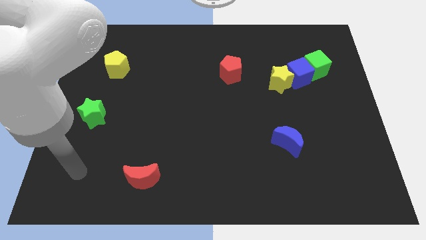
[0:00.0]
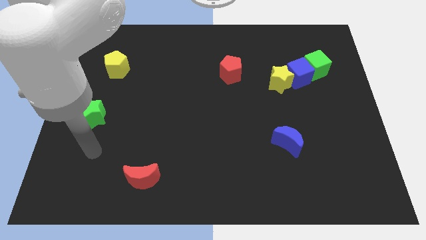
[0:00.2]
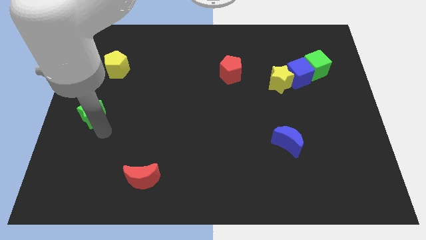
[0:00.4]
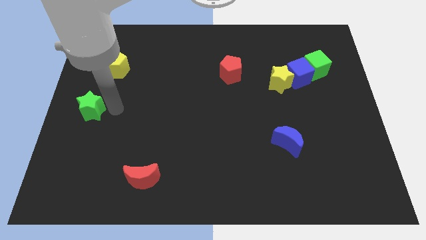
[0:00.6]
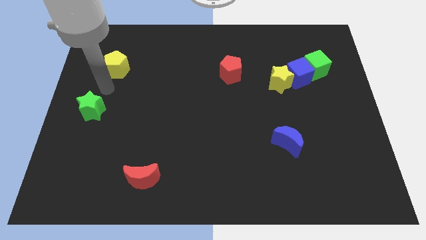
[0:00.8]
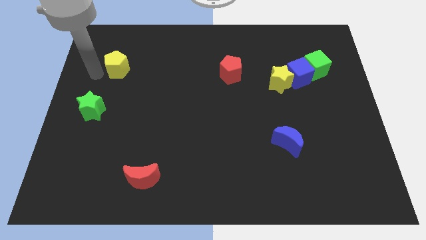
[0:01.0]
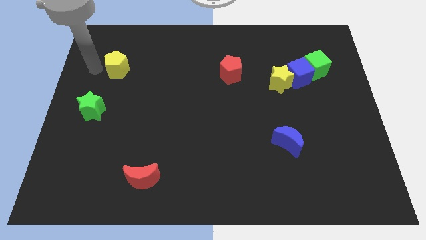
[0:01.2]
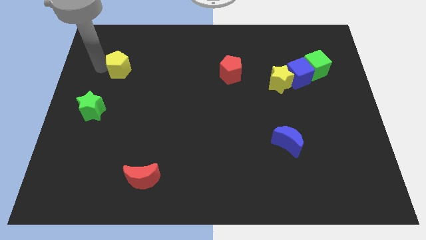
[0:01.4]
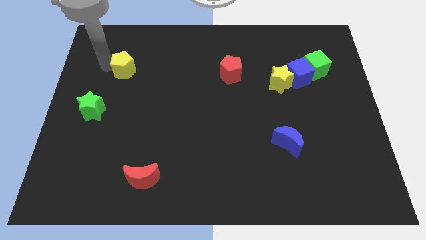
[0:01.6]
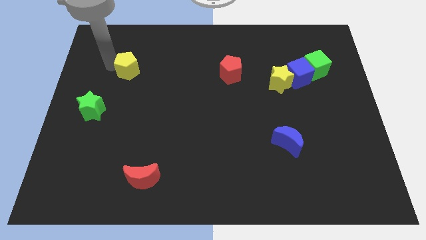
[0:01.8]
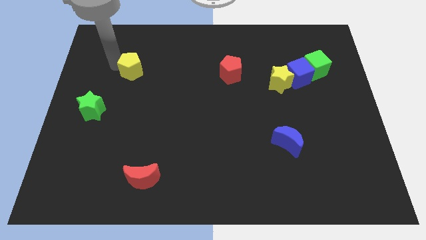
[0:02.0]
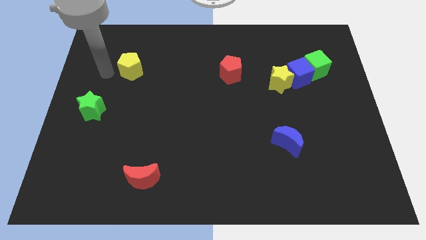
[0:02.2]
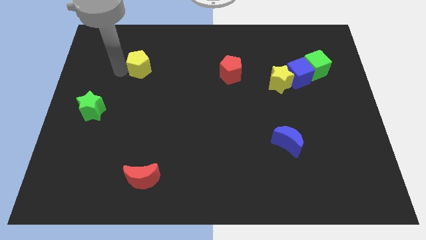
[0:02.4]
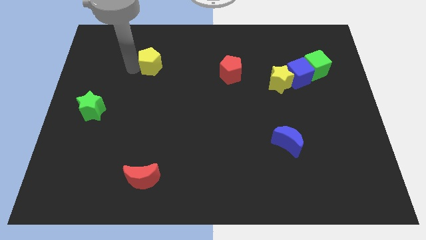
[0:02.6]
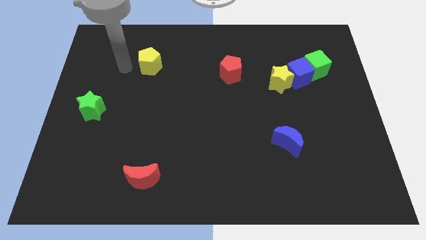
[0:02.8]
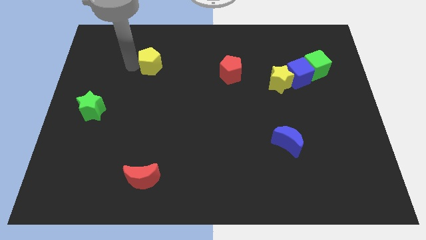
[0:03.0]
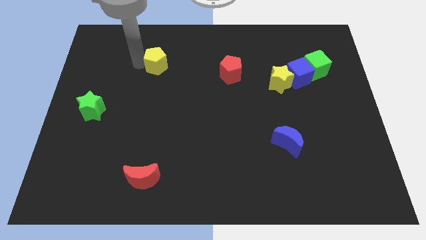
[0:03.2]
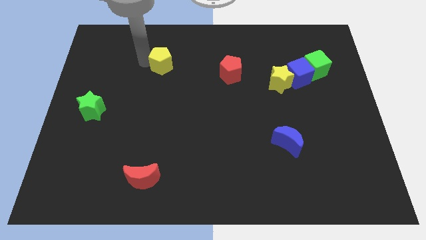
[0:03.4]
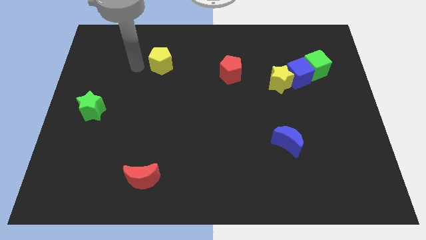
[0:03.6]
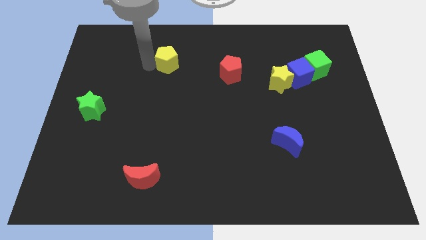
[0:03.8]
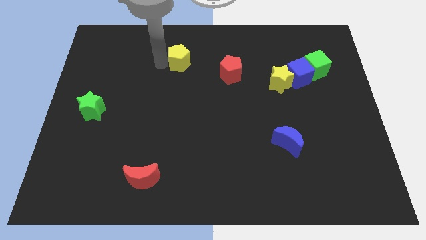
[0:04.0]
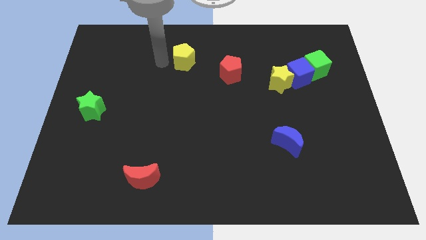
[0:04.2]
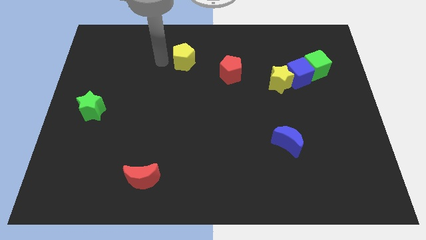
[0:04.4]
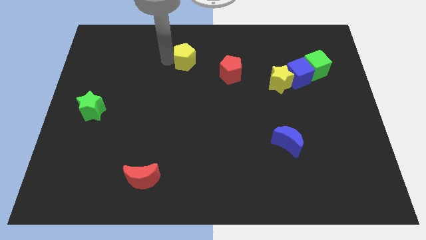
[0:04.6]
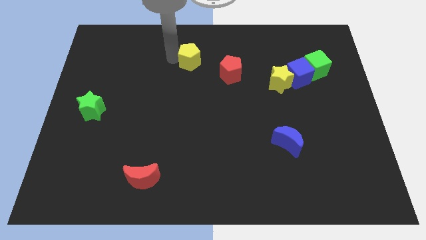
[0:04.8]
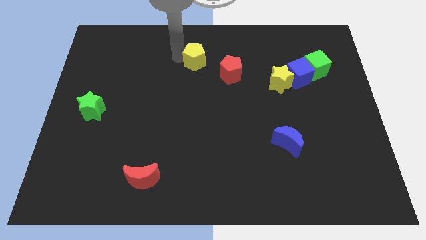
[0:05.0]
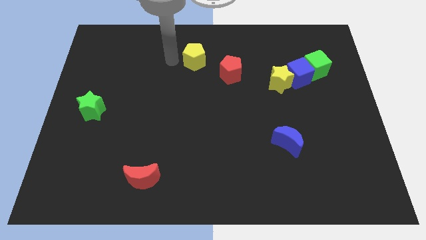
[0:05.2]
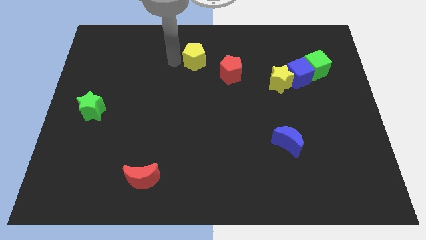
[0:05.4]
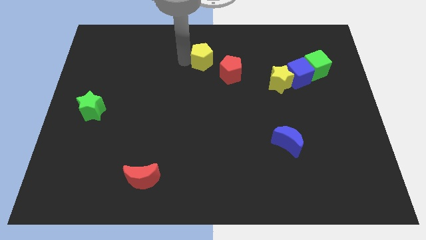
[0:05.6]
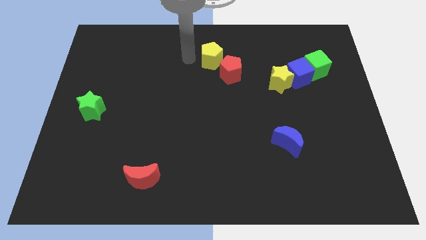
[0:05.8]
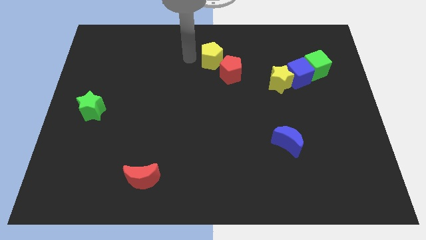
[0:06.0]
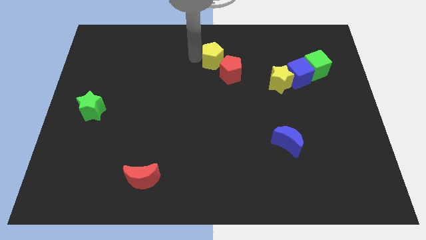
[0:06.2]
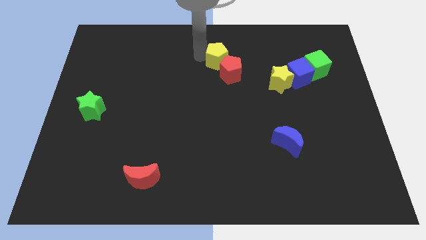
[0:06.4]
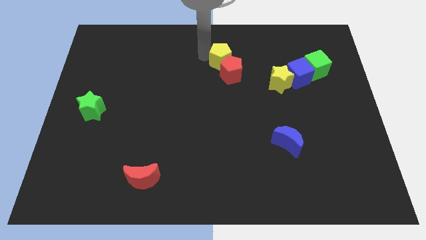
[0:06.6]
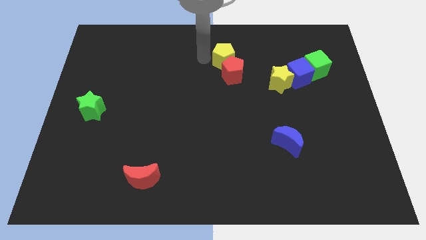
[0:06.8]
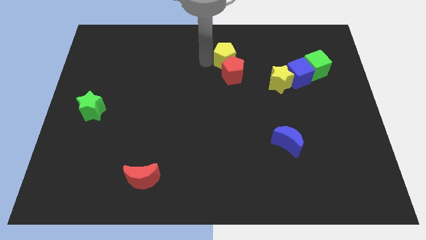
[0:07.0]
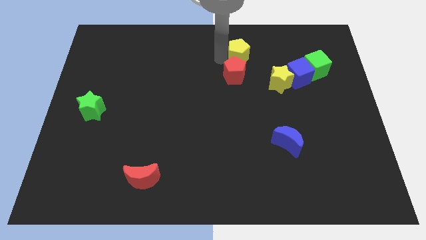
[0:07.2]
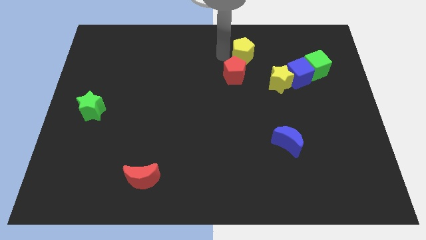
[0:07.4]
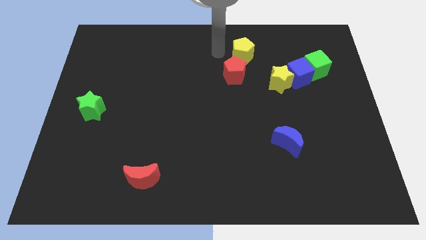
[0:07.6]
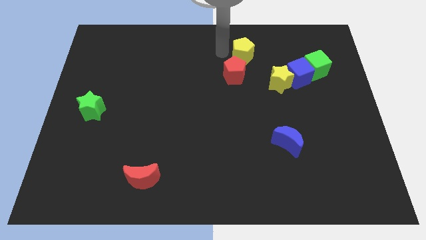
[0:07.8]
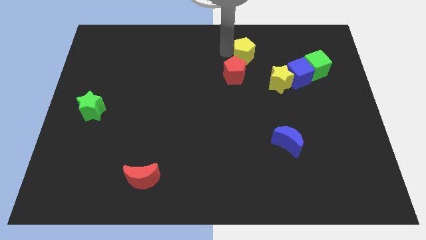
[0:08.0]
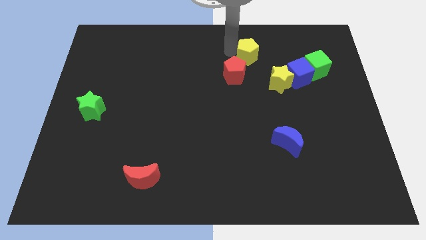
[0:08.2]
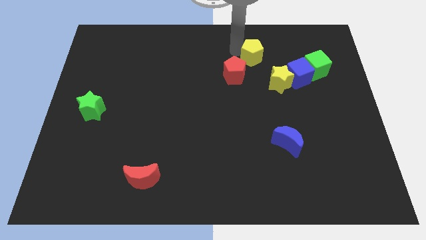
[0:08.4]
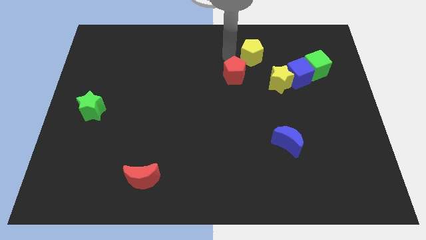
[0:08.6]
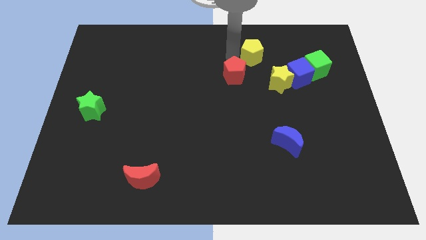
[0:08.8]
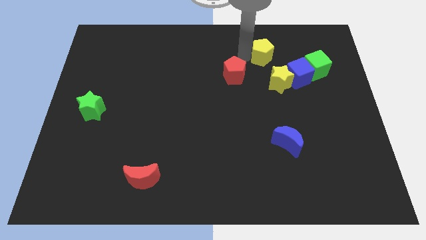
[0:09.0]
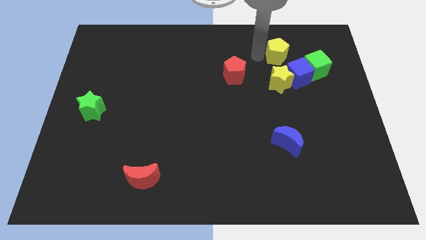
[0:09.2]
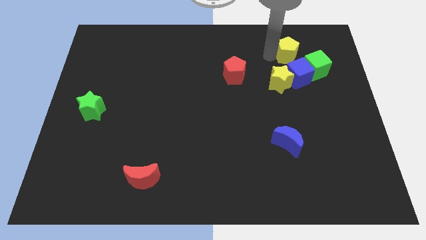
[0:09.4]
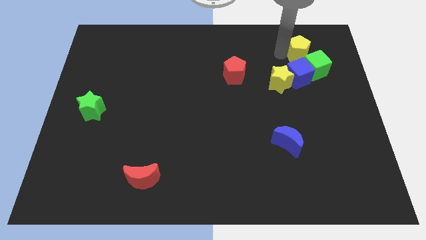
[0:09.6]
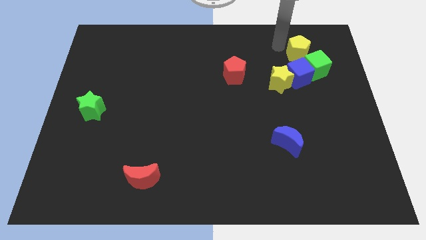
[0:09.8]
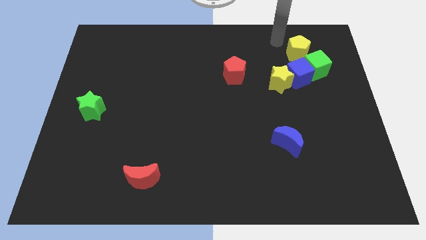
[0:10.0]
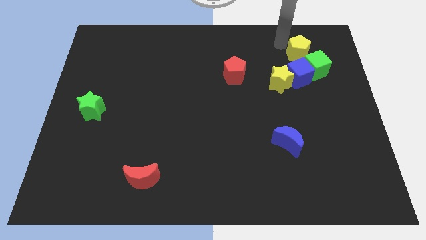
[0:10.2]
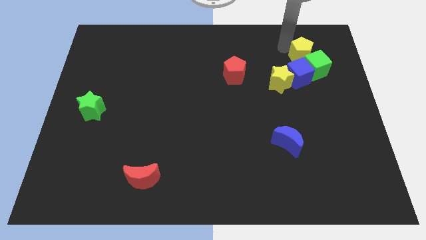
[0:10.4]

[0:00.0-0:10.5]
push the yellow pentagon to the top right of the blue cube

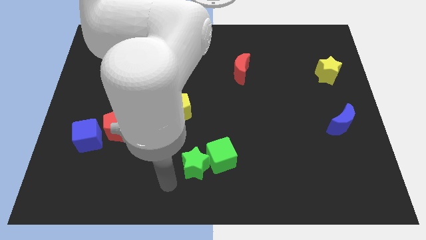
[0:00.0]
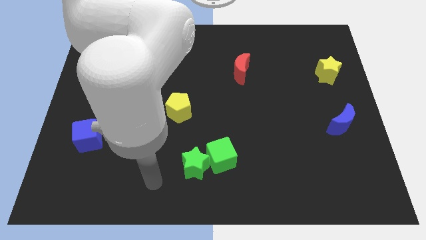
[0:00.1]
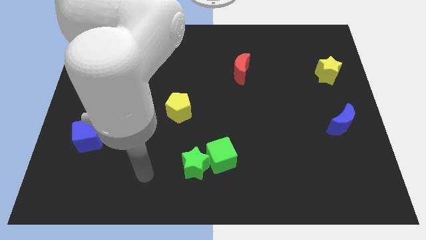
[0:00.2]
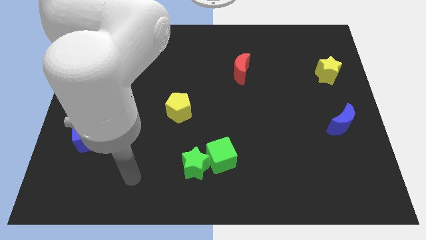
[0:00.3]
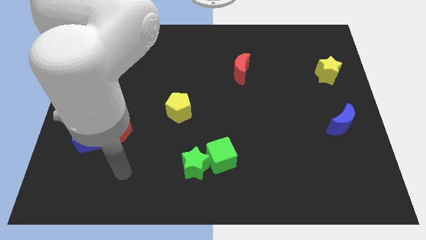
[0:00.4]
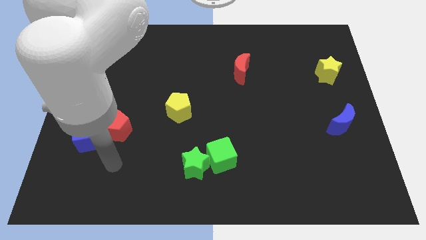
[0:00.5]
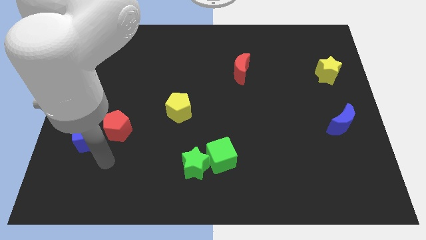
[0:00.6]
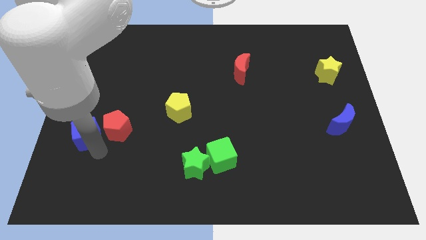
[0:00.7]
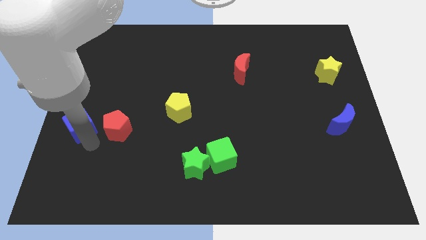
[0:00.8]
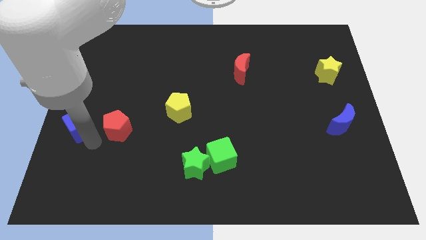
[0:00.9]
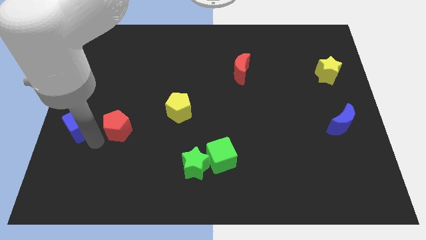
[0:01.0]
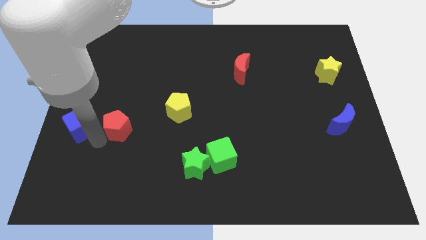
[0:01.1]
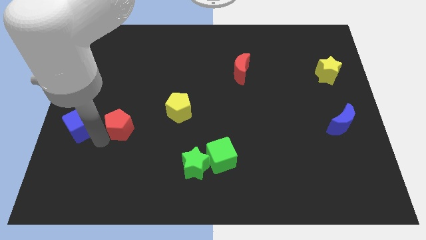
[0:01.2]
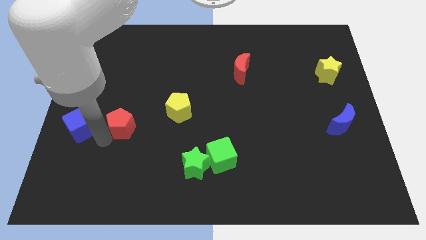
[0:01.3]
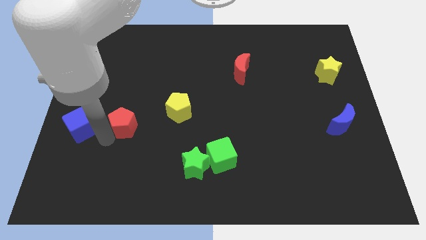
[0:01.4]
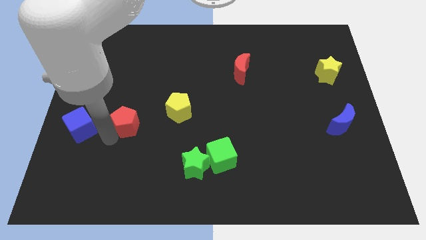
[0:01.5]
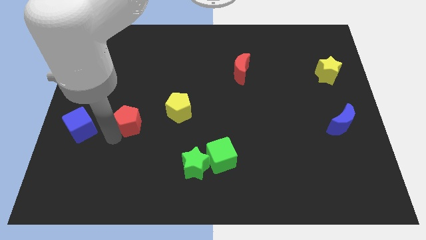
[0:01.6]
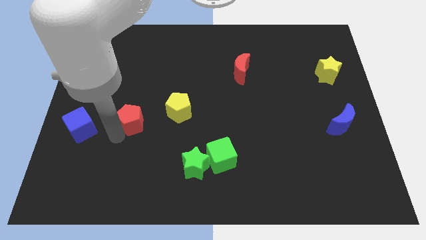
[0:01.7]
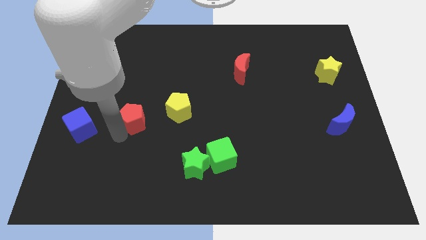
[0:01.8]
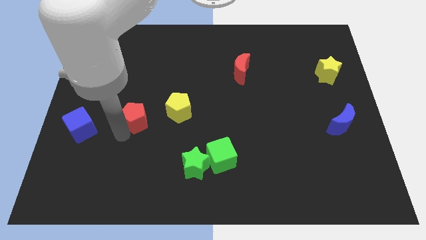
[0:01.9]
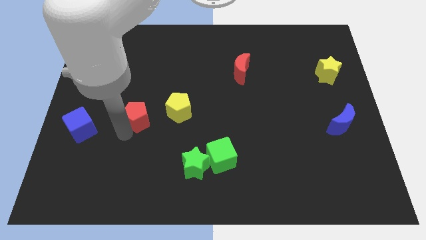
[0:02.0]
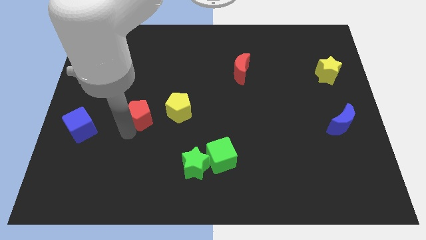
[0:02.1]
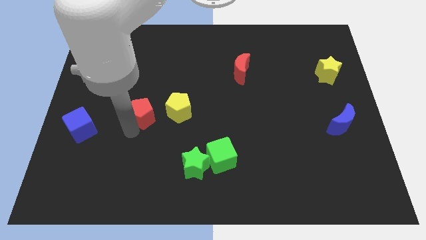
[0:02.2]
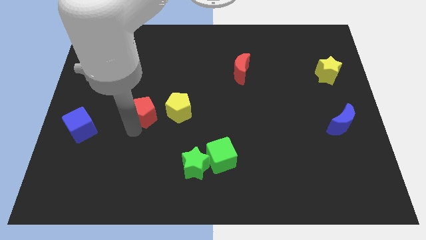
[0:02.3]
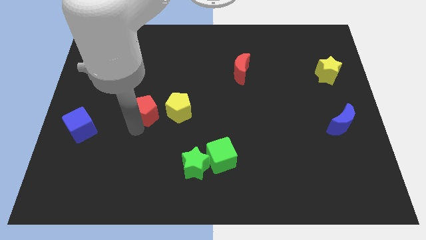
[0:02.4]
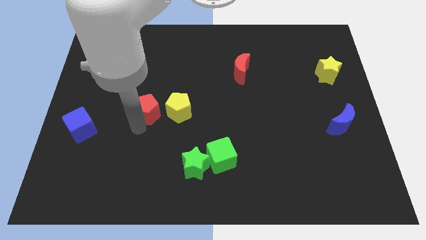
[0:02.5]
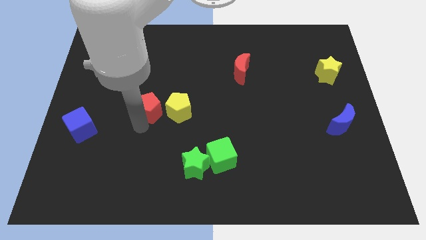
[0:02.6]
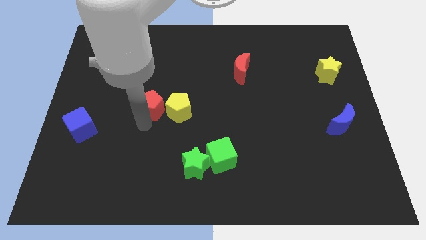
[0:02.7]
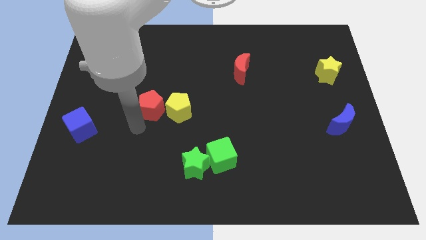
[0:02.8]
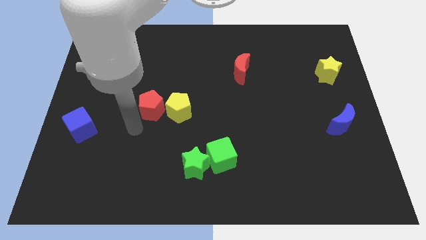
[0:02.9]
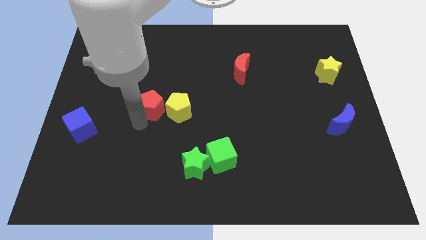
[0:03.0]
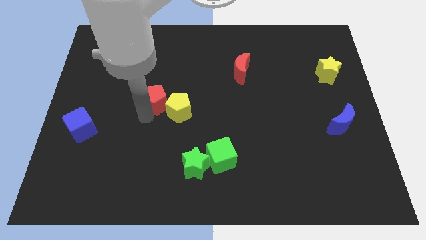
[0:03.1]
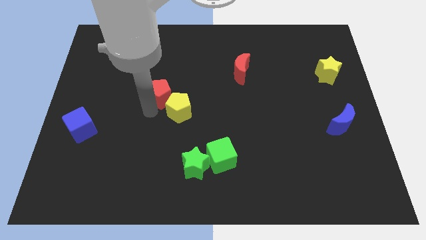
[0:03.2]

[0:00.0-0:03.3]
push the red pentagon to the top side of the yellow pentagon
